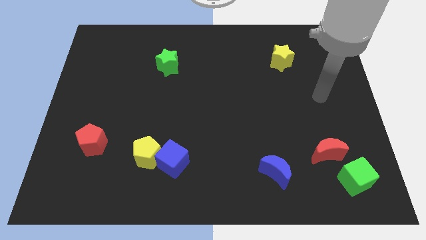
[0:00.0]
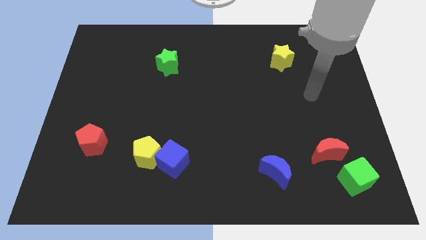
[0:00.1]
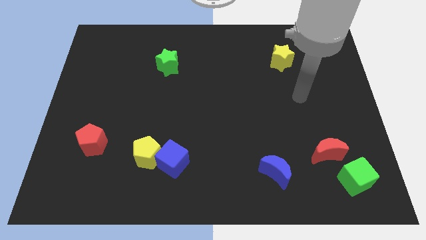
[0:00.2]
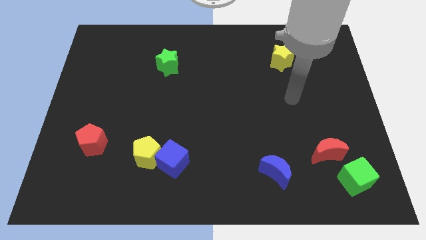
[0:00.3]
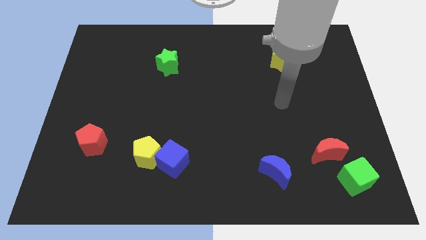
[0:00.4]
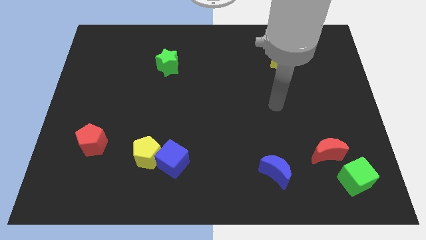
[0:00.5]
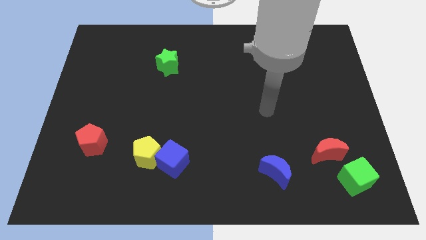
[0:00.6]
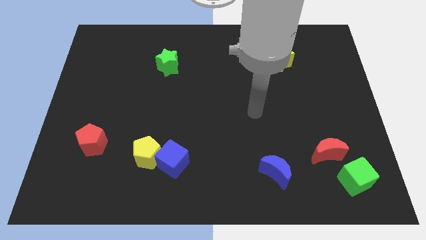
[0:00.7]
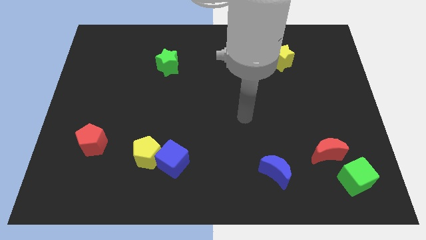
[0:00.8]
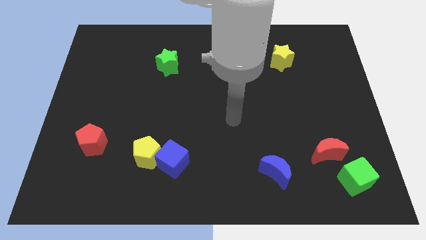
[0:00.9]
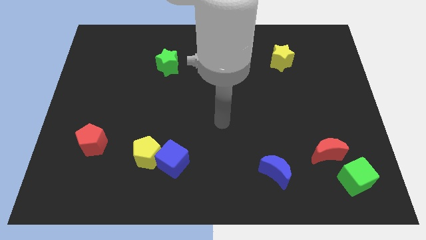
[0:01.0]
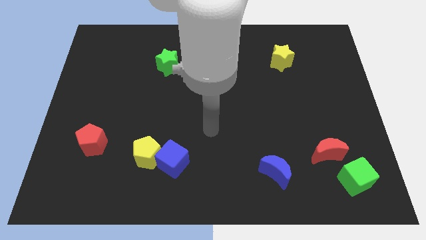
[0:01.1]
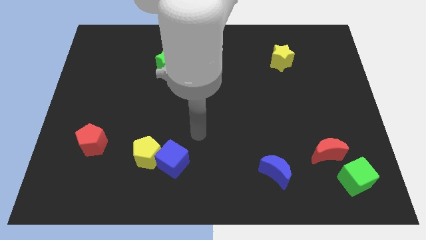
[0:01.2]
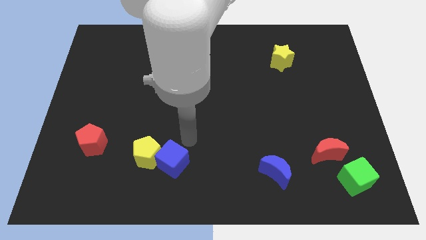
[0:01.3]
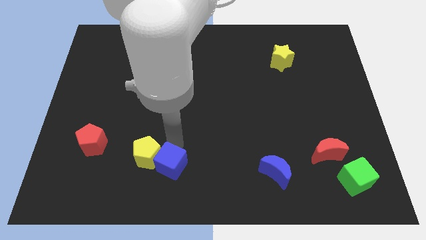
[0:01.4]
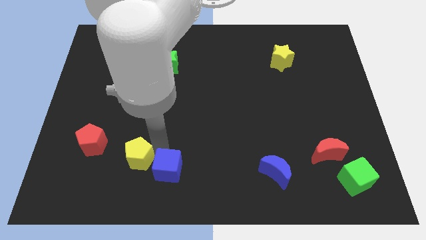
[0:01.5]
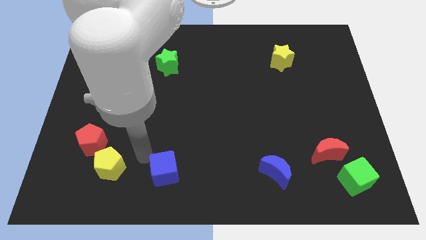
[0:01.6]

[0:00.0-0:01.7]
move the blue cube away from the yellow pentagon

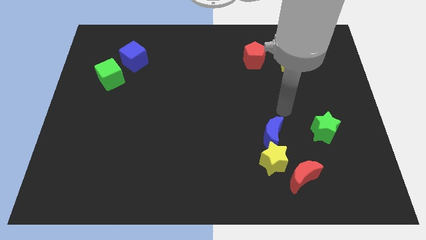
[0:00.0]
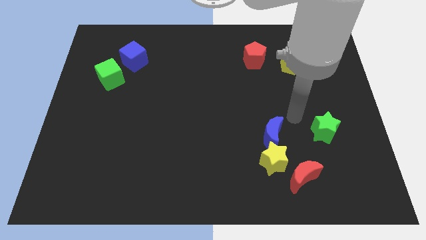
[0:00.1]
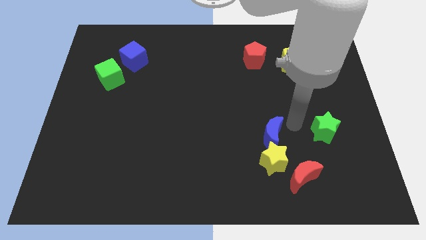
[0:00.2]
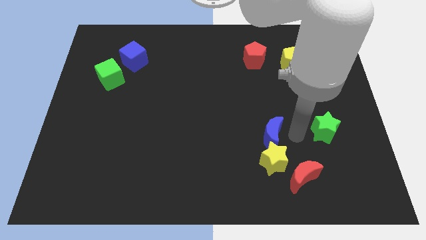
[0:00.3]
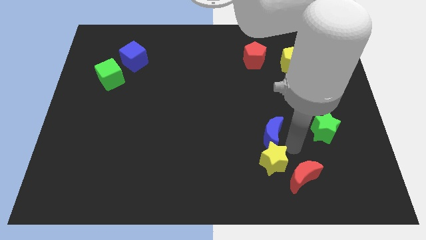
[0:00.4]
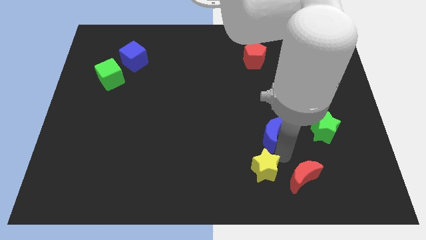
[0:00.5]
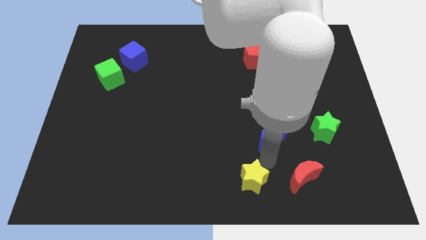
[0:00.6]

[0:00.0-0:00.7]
separate the blue moon from the yellow star

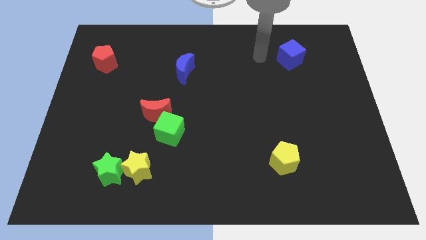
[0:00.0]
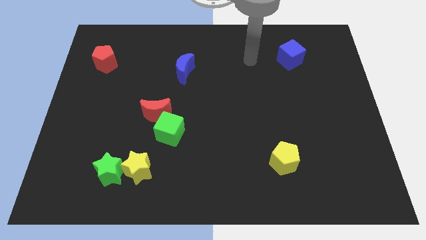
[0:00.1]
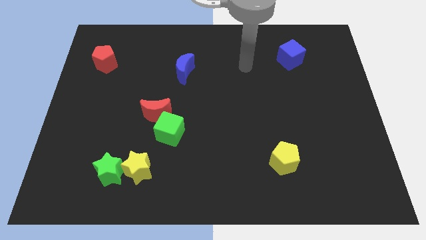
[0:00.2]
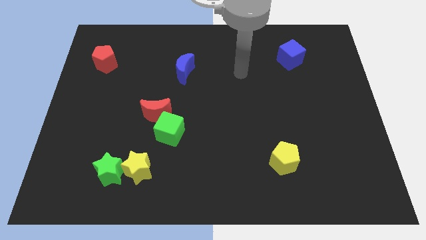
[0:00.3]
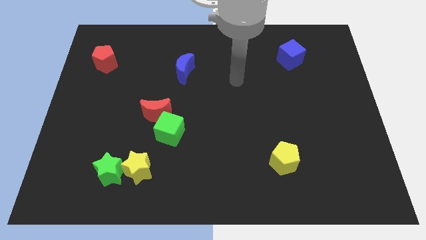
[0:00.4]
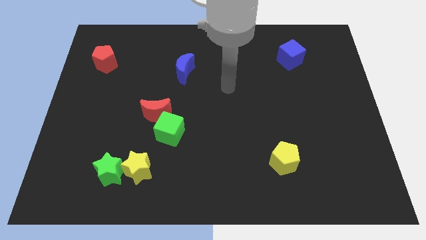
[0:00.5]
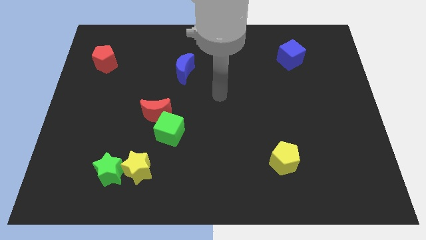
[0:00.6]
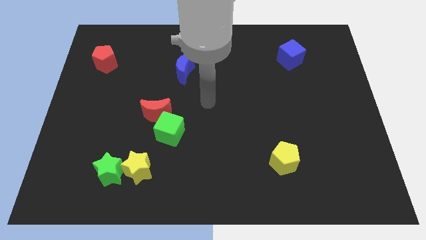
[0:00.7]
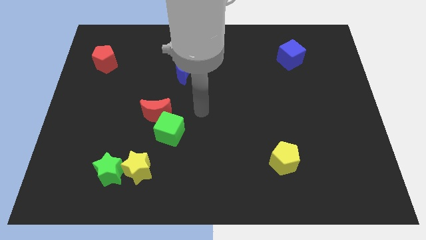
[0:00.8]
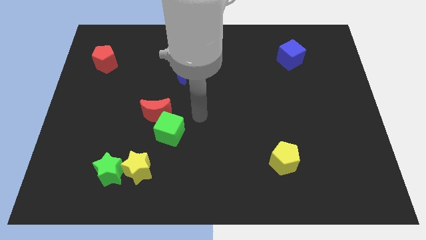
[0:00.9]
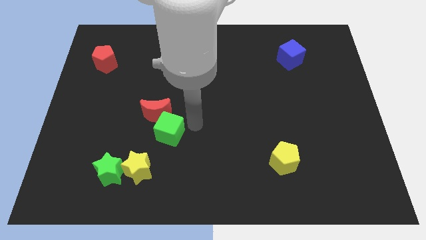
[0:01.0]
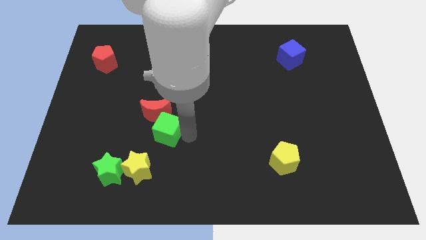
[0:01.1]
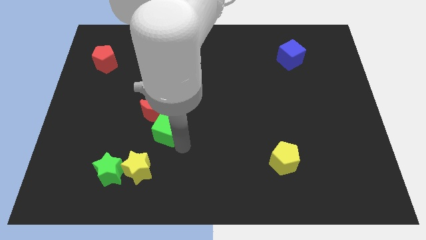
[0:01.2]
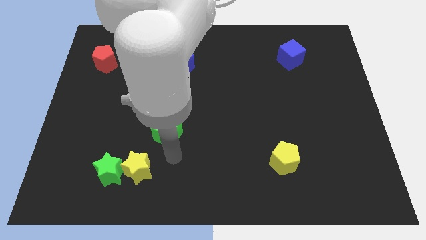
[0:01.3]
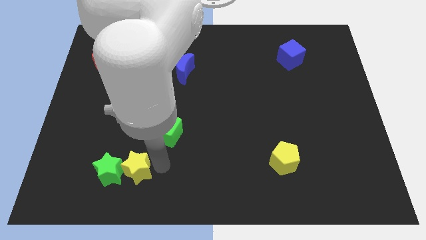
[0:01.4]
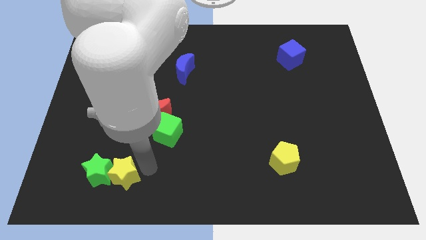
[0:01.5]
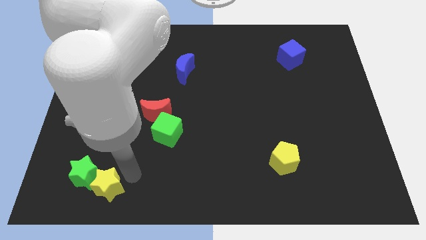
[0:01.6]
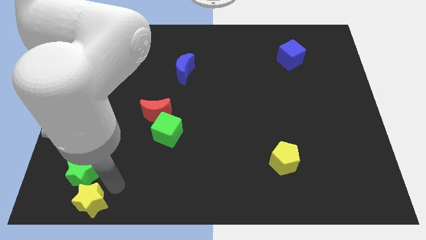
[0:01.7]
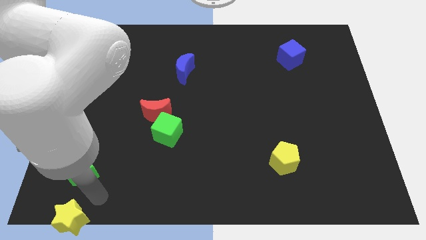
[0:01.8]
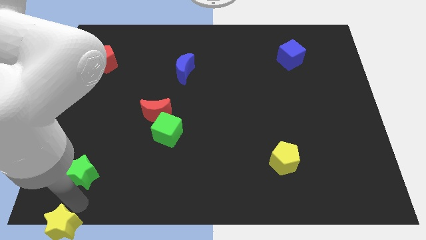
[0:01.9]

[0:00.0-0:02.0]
move the green star away from the yellow star

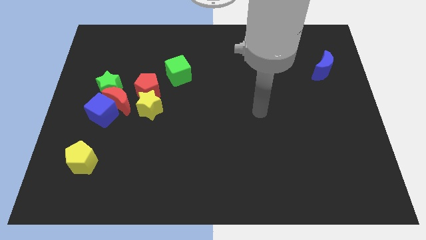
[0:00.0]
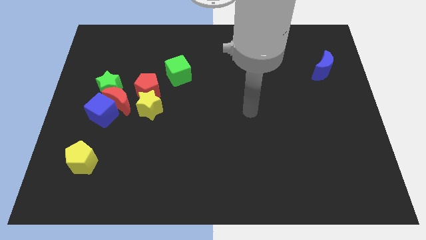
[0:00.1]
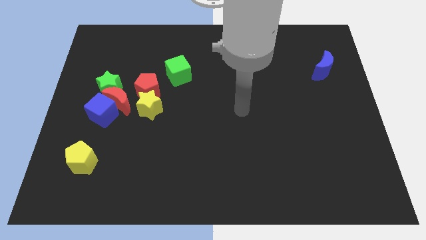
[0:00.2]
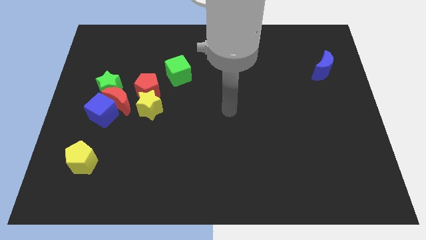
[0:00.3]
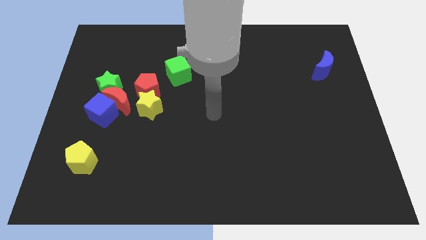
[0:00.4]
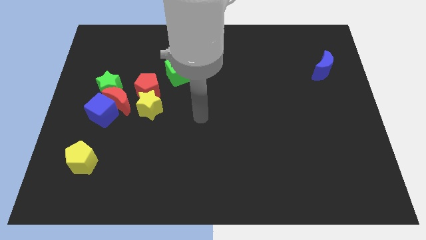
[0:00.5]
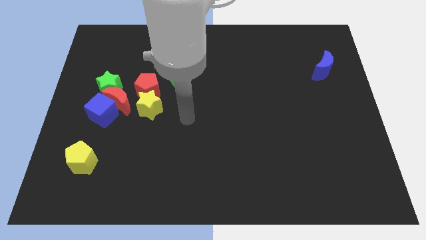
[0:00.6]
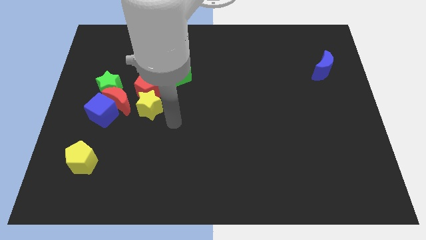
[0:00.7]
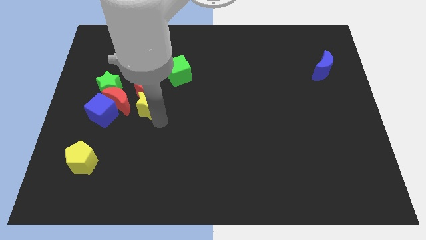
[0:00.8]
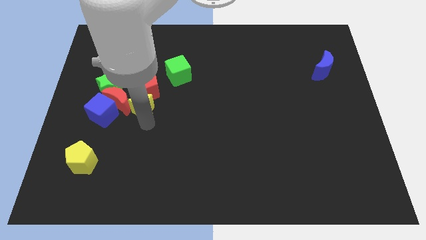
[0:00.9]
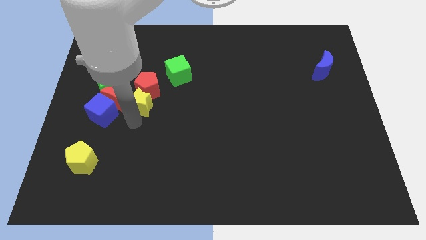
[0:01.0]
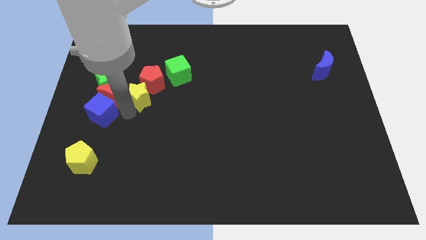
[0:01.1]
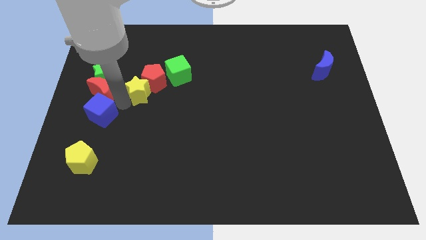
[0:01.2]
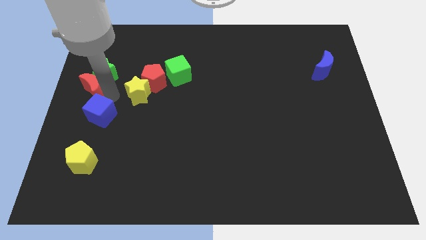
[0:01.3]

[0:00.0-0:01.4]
separate the blue cube from the red moon and green star

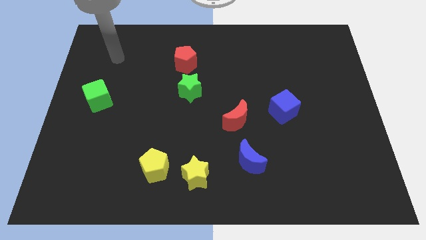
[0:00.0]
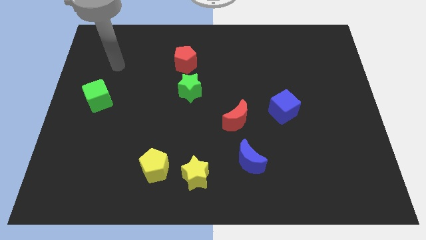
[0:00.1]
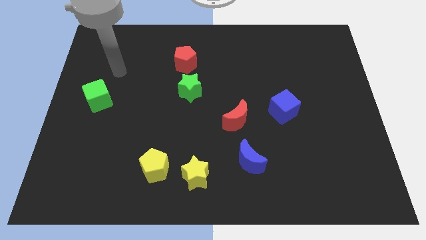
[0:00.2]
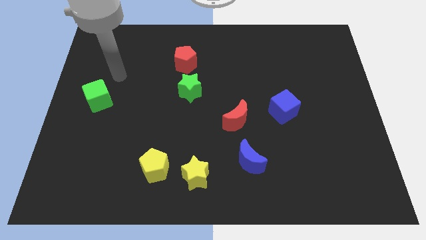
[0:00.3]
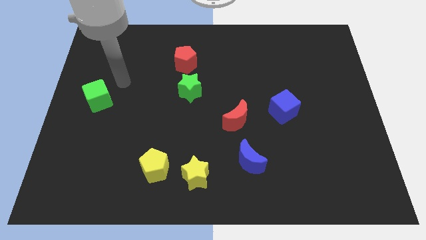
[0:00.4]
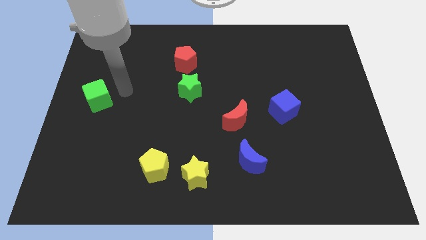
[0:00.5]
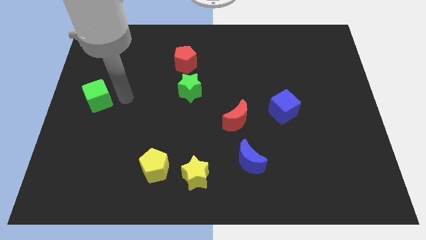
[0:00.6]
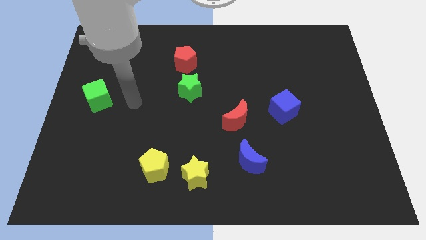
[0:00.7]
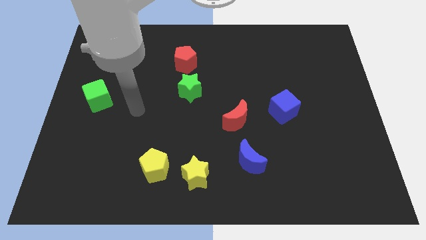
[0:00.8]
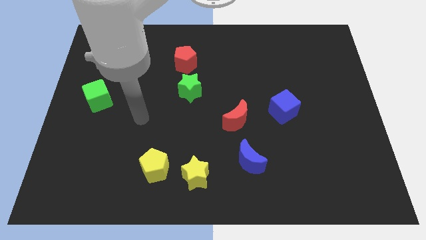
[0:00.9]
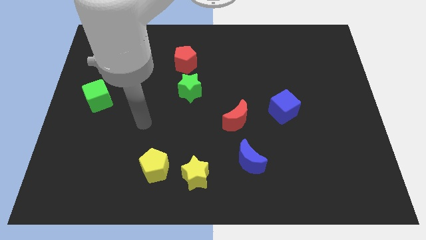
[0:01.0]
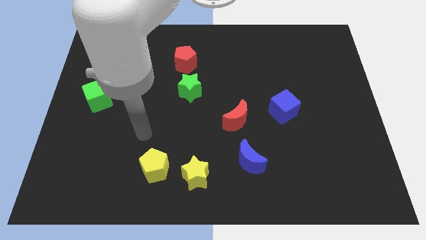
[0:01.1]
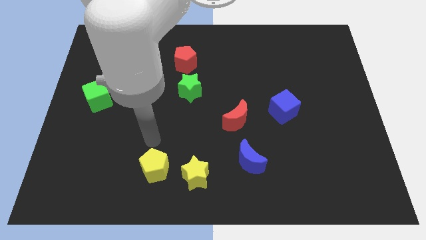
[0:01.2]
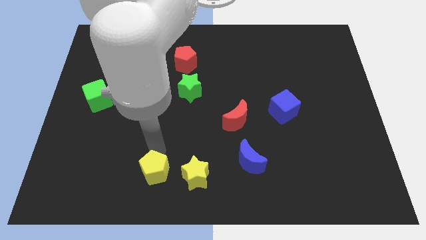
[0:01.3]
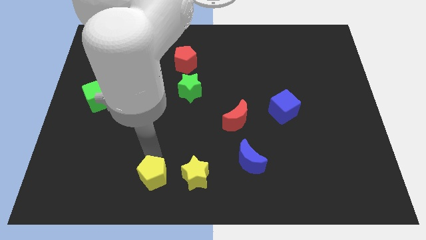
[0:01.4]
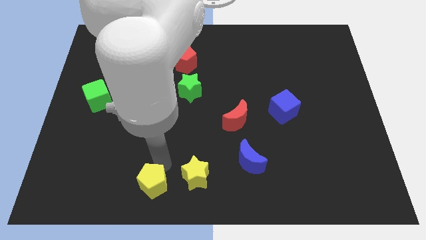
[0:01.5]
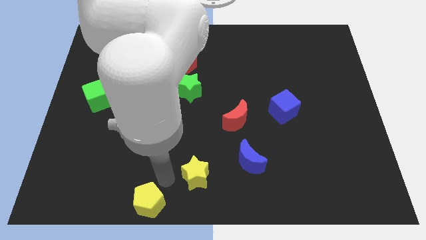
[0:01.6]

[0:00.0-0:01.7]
pull the yellow star apart from the yellow pentagon

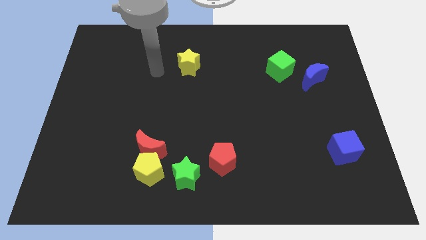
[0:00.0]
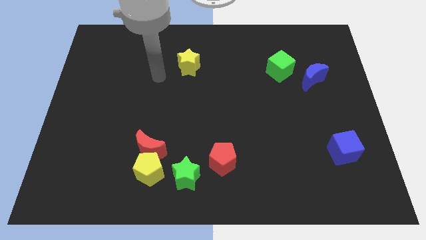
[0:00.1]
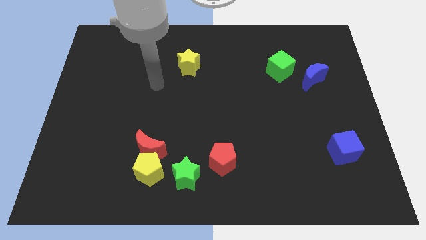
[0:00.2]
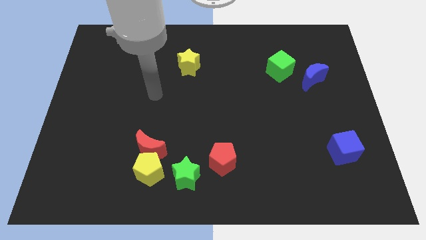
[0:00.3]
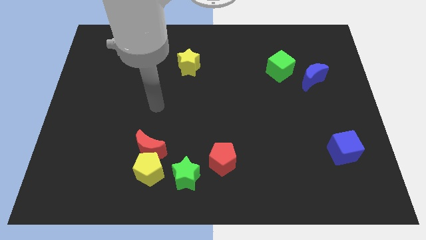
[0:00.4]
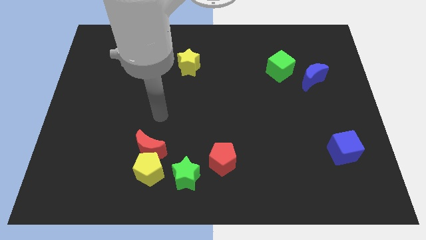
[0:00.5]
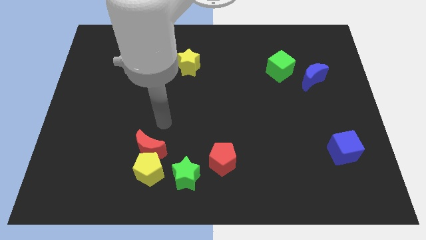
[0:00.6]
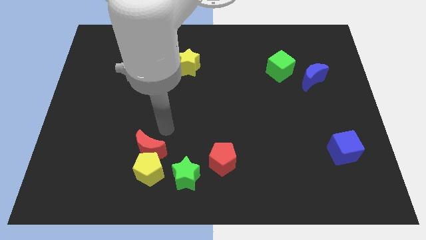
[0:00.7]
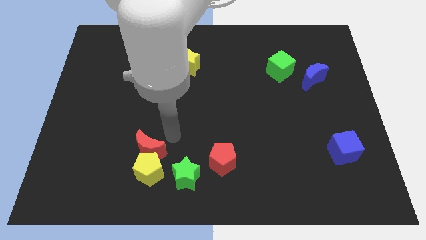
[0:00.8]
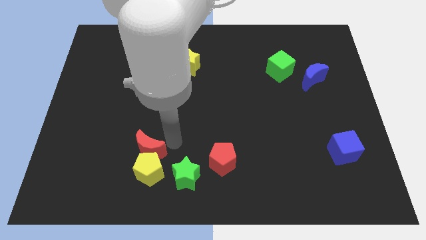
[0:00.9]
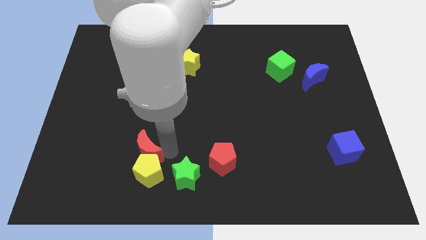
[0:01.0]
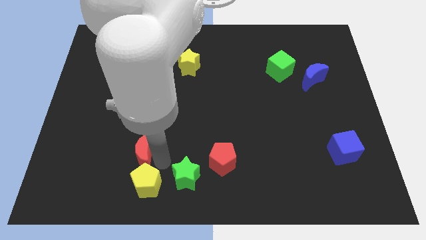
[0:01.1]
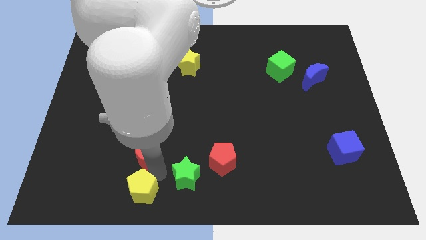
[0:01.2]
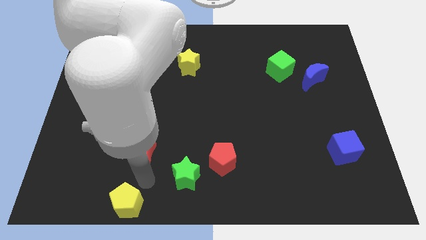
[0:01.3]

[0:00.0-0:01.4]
pull the red moon apart from the yellow pentagon

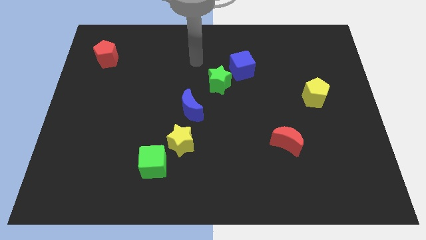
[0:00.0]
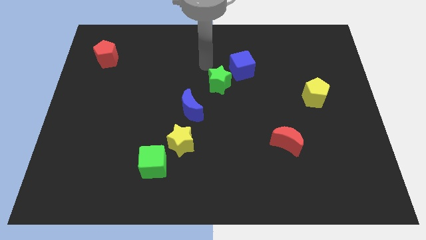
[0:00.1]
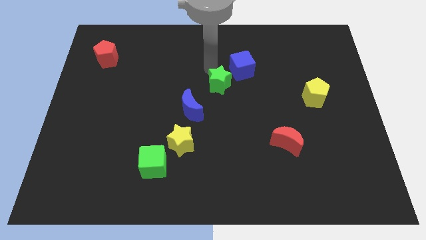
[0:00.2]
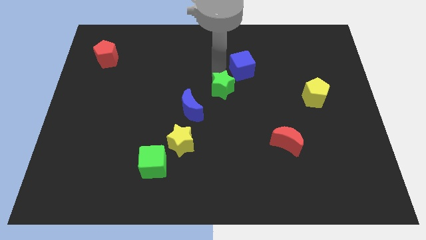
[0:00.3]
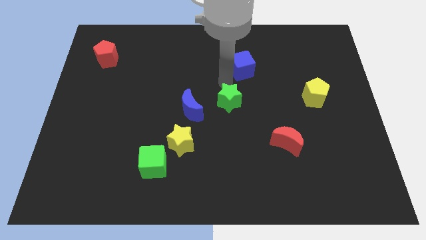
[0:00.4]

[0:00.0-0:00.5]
pull the blue cube apart from the green star
